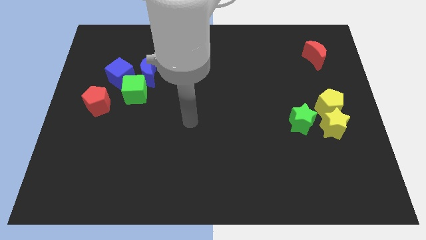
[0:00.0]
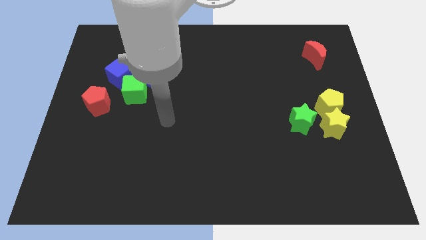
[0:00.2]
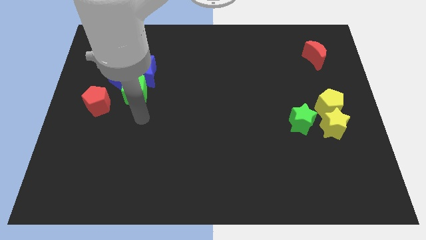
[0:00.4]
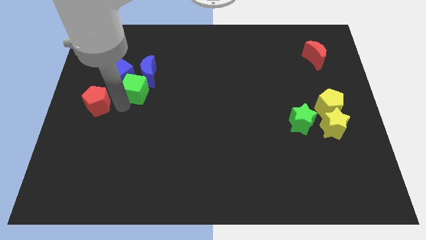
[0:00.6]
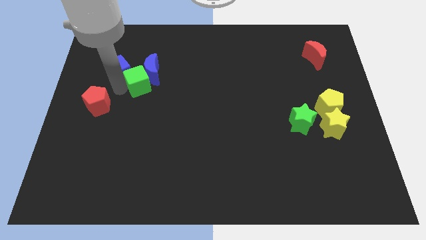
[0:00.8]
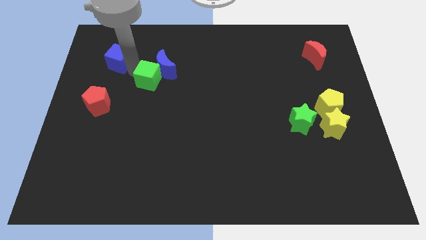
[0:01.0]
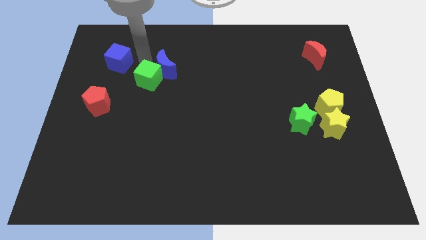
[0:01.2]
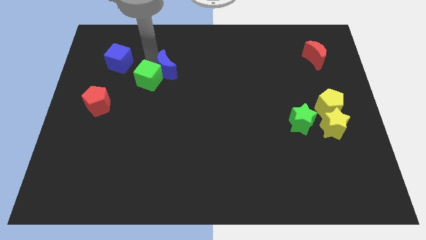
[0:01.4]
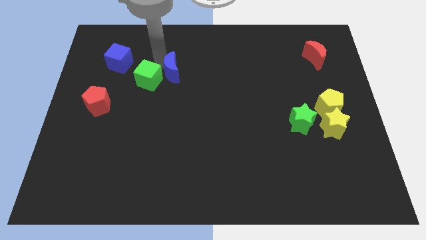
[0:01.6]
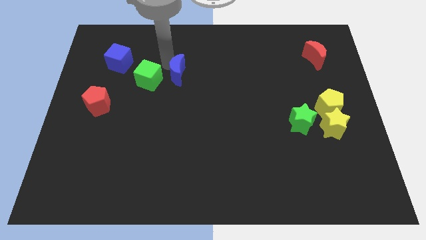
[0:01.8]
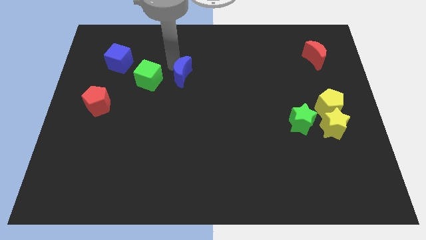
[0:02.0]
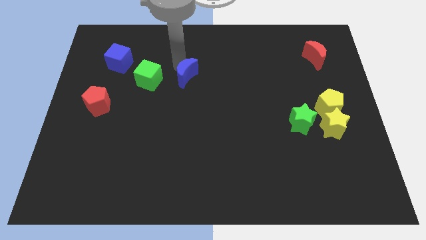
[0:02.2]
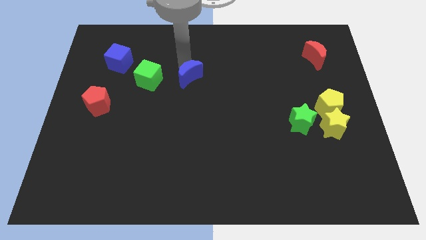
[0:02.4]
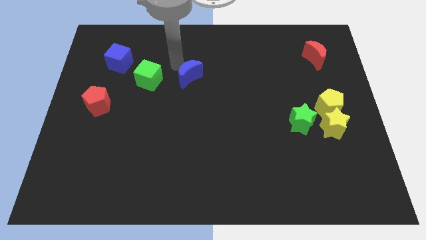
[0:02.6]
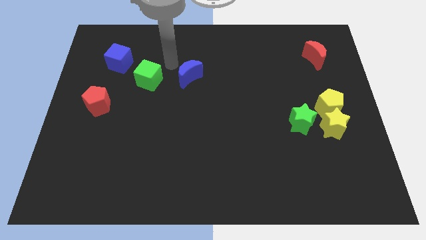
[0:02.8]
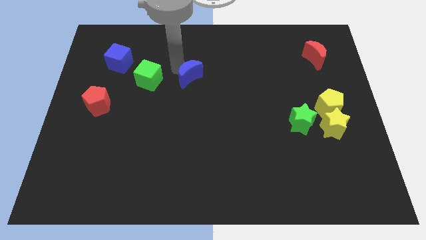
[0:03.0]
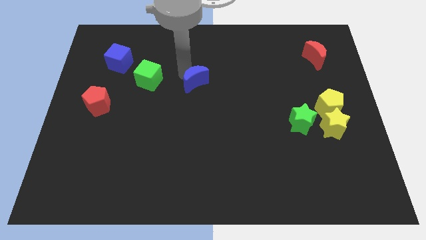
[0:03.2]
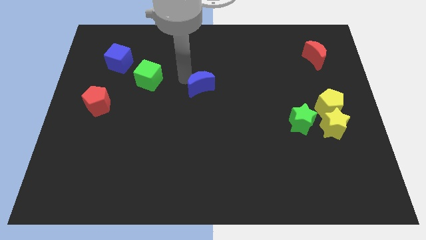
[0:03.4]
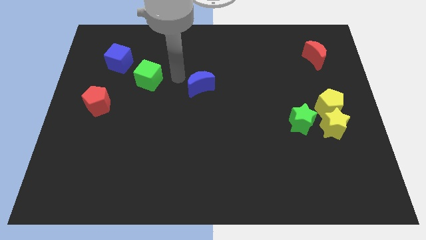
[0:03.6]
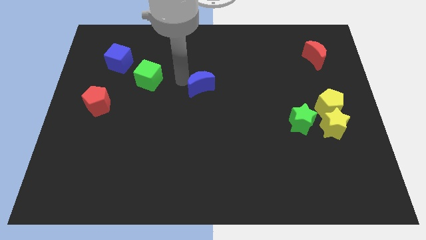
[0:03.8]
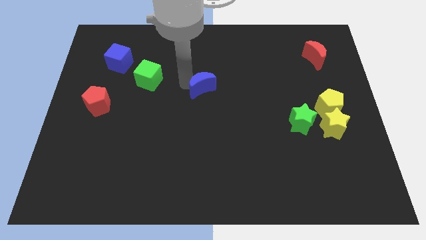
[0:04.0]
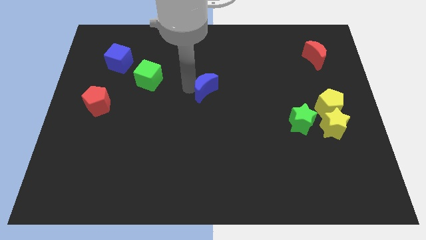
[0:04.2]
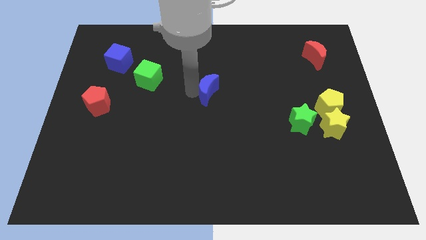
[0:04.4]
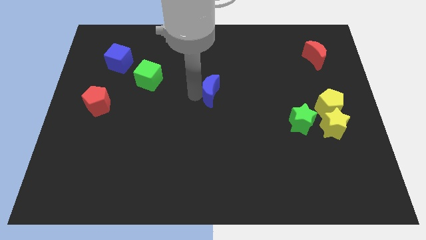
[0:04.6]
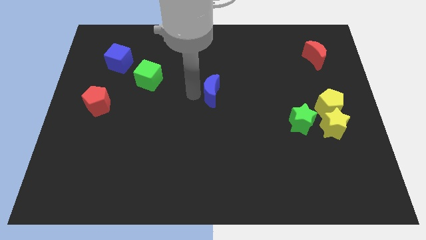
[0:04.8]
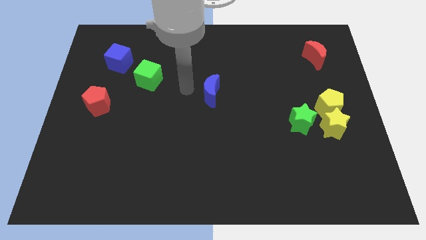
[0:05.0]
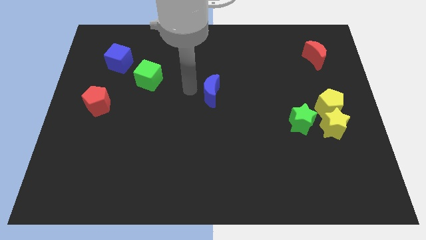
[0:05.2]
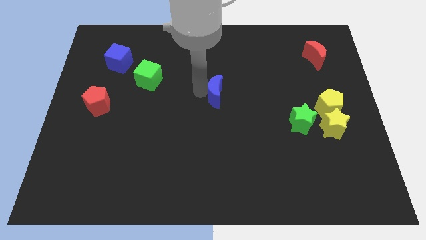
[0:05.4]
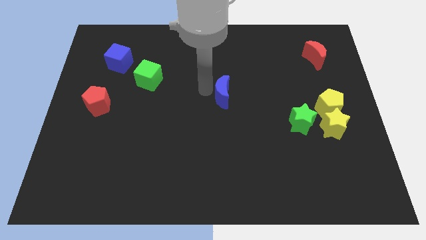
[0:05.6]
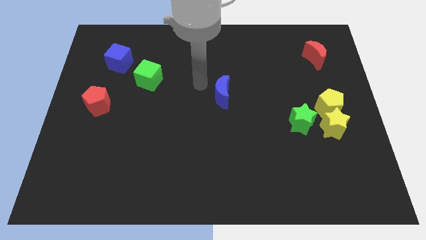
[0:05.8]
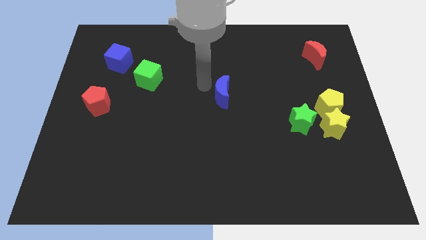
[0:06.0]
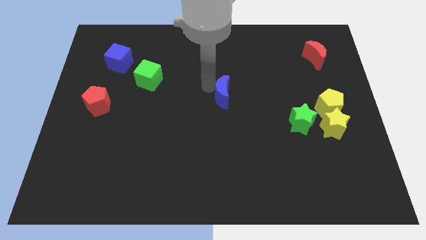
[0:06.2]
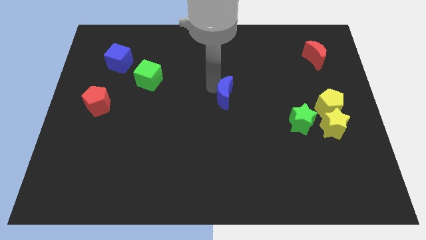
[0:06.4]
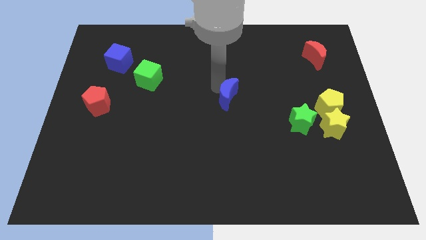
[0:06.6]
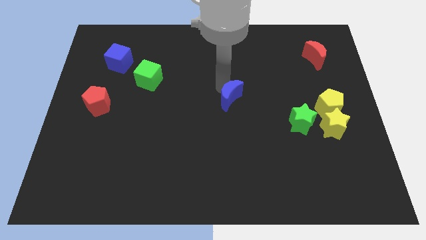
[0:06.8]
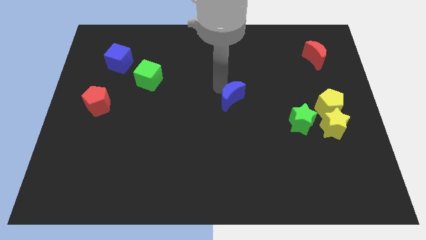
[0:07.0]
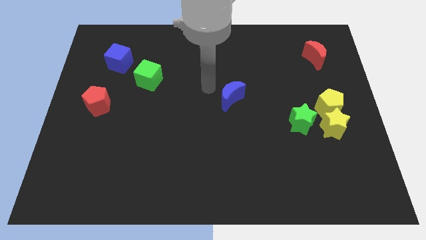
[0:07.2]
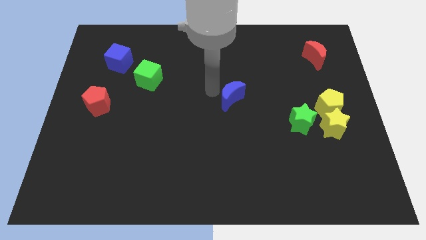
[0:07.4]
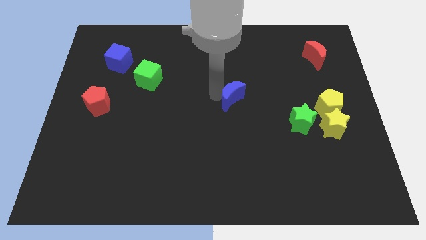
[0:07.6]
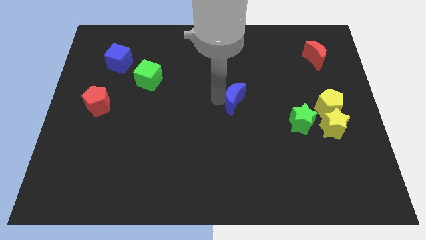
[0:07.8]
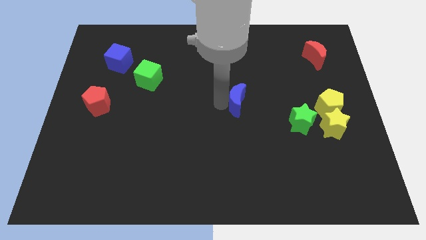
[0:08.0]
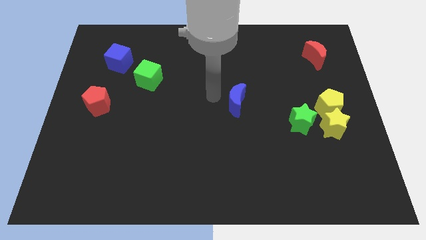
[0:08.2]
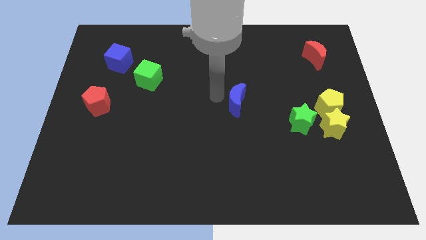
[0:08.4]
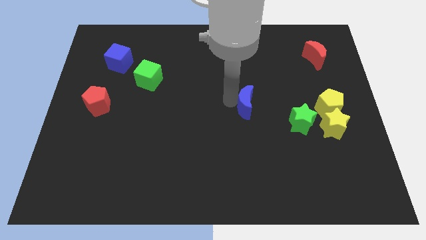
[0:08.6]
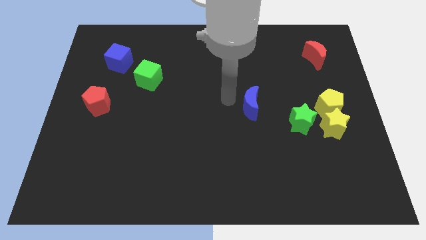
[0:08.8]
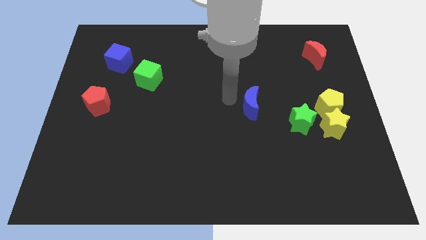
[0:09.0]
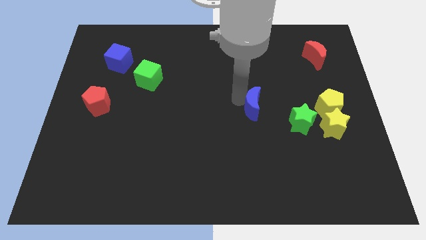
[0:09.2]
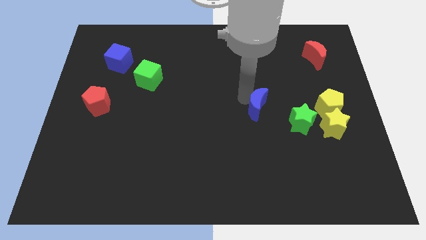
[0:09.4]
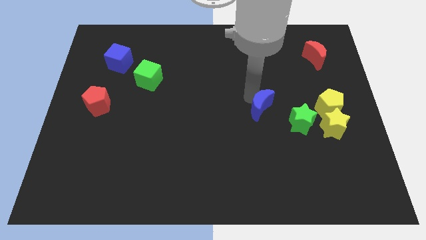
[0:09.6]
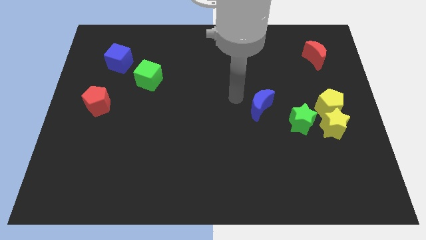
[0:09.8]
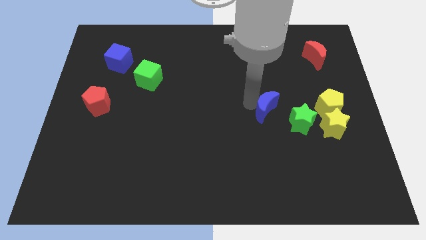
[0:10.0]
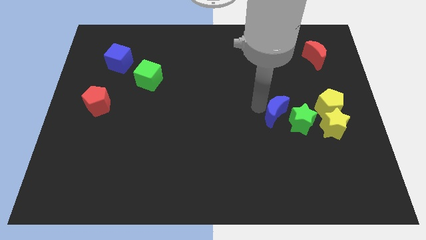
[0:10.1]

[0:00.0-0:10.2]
push the blue moon close to the green star

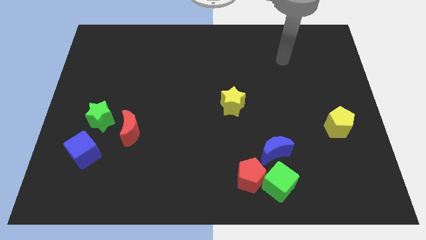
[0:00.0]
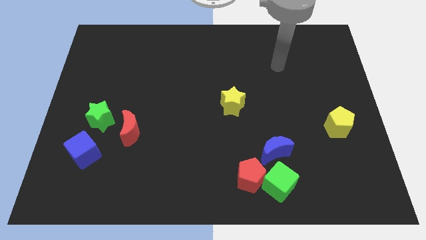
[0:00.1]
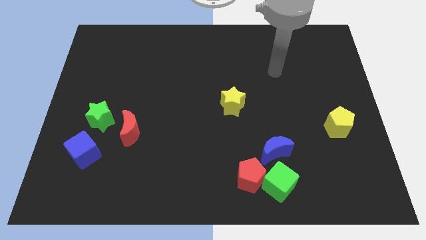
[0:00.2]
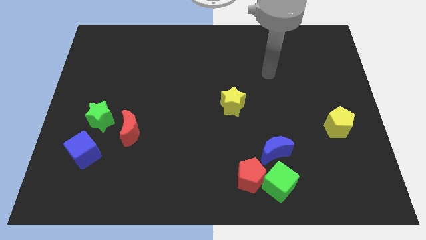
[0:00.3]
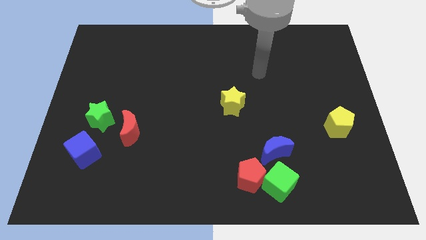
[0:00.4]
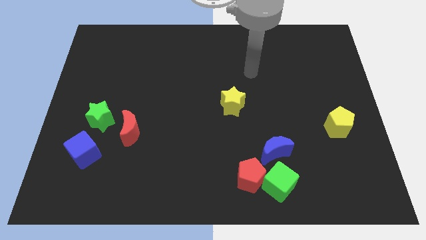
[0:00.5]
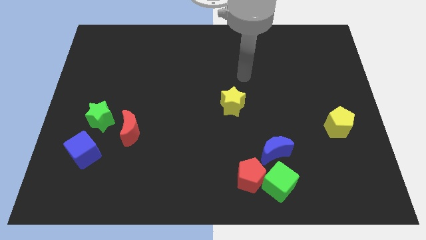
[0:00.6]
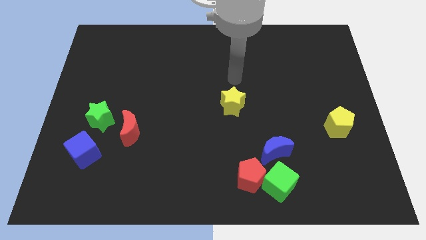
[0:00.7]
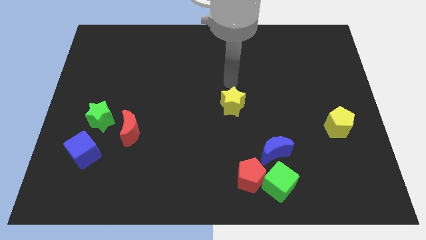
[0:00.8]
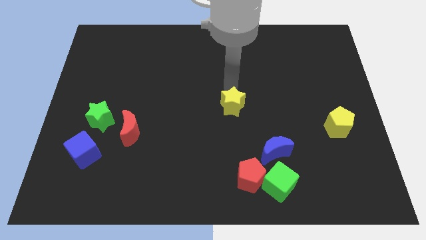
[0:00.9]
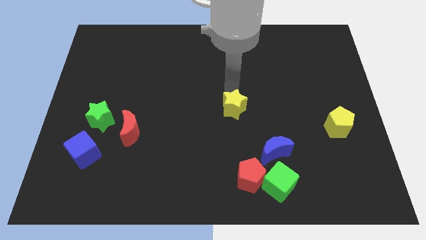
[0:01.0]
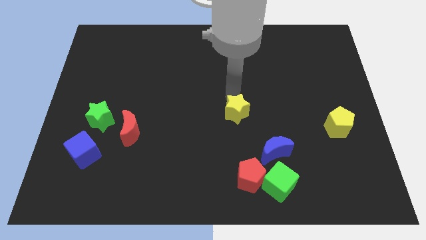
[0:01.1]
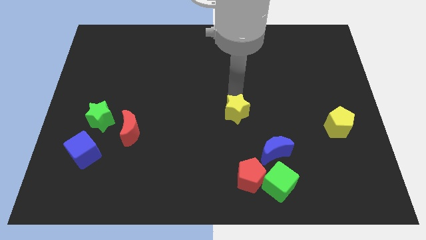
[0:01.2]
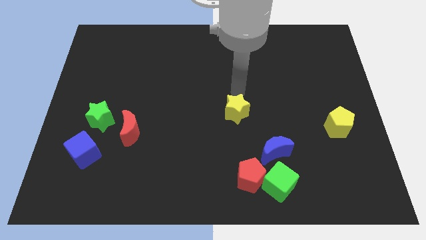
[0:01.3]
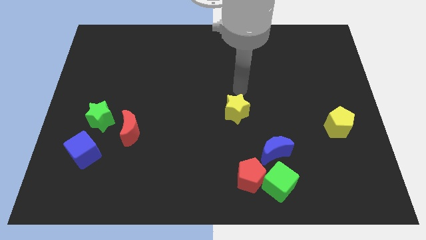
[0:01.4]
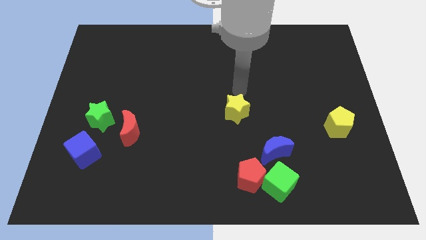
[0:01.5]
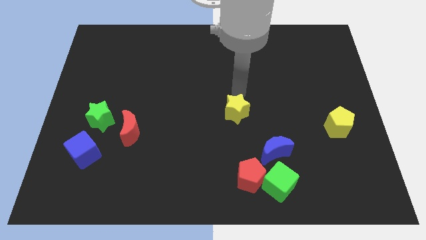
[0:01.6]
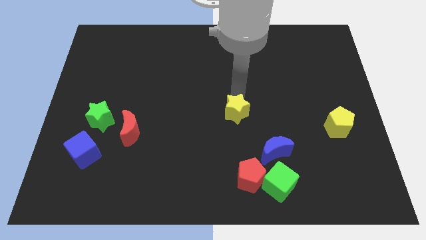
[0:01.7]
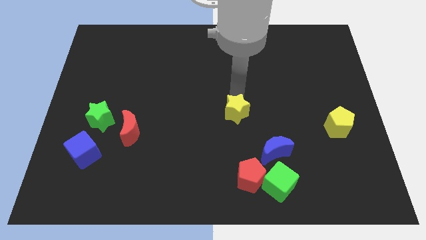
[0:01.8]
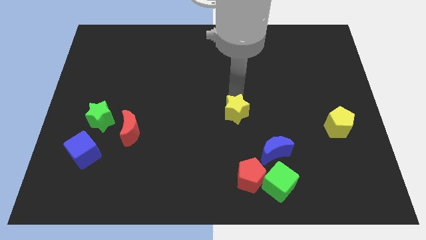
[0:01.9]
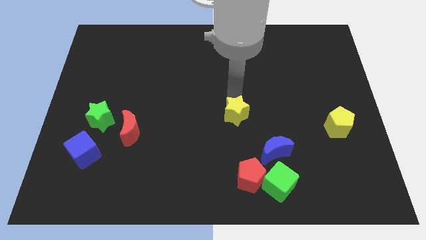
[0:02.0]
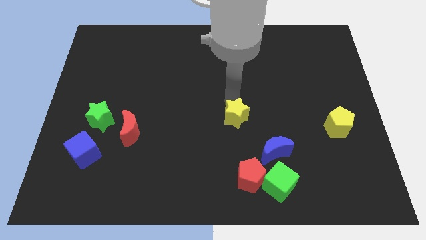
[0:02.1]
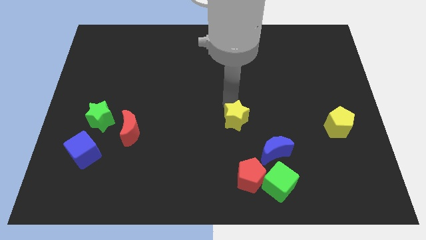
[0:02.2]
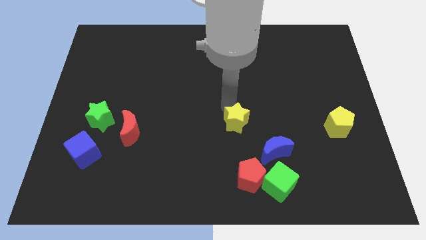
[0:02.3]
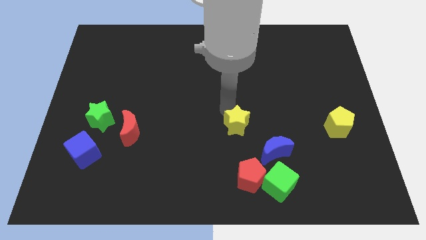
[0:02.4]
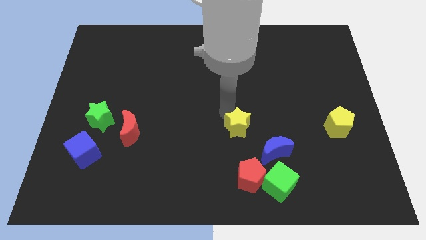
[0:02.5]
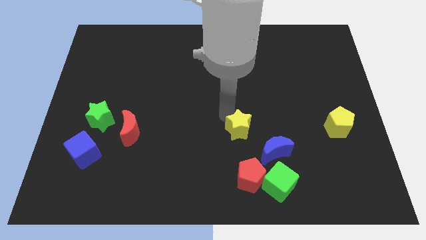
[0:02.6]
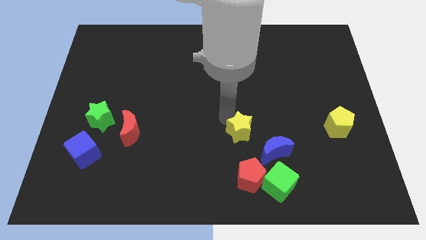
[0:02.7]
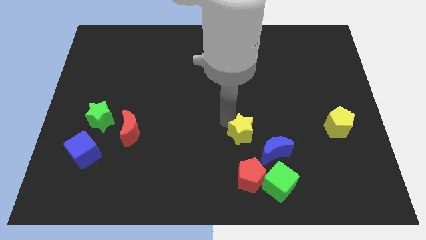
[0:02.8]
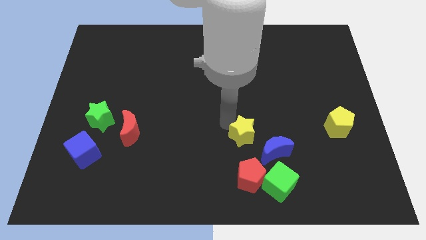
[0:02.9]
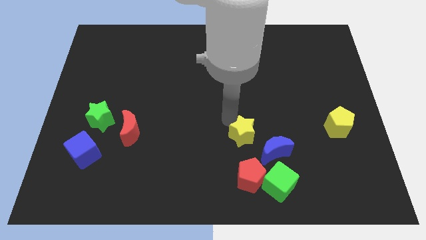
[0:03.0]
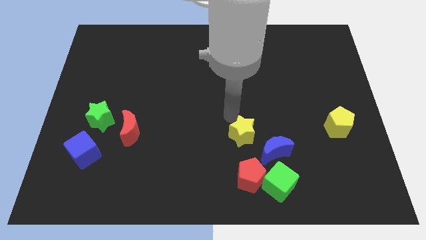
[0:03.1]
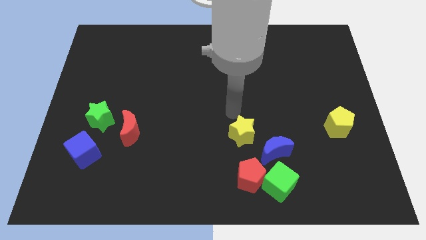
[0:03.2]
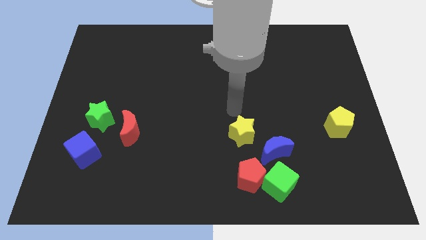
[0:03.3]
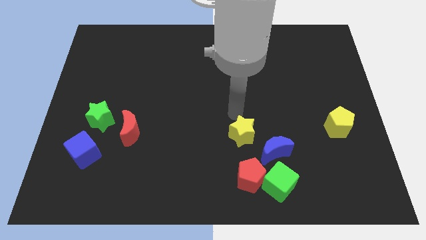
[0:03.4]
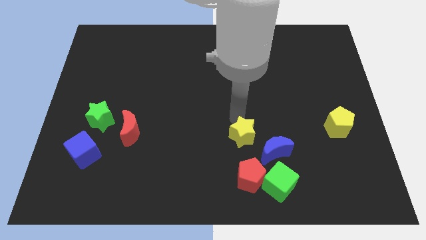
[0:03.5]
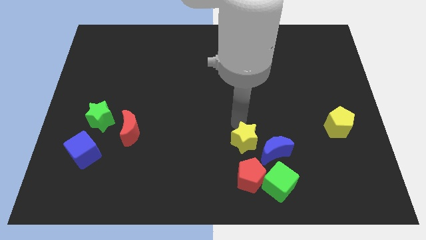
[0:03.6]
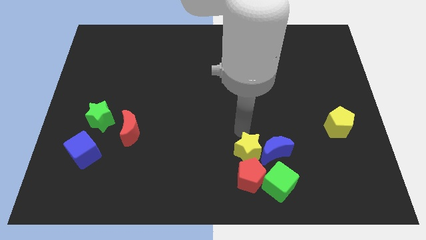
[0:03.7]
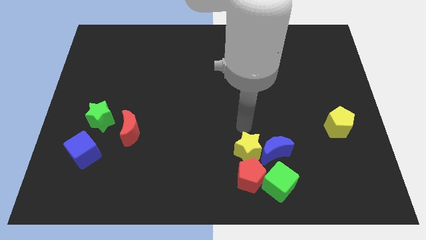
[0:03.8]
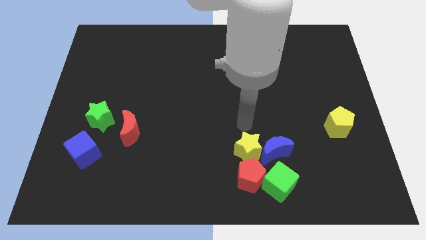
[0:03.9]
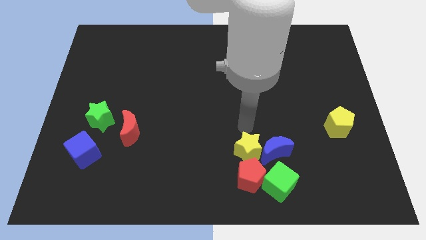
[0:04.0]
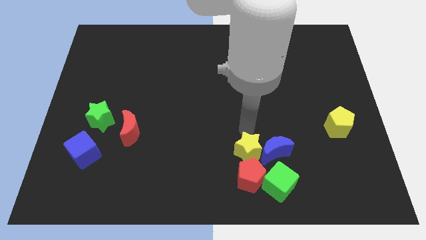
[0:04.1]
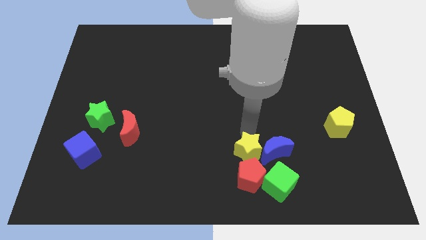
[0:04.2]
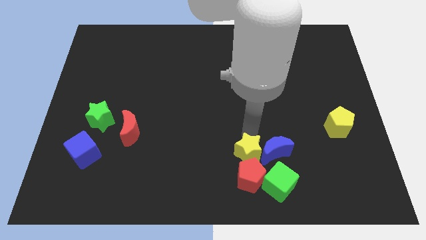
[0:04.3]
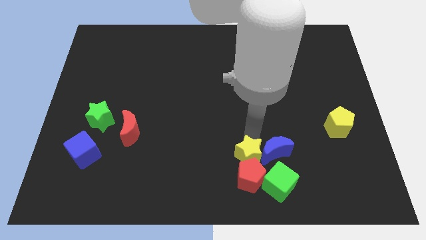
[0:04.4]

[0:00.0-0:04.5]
put the yellow star towards the red pentagon
